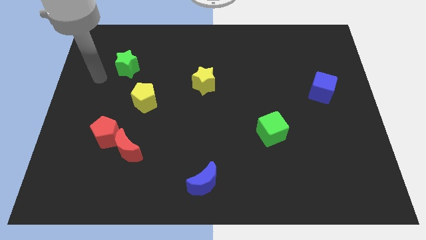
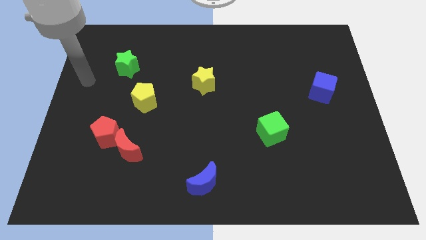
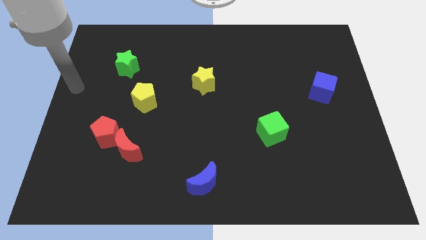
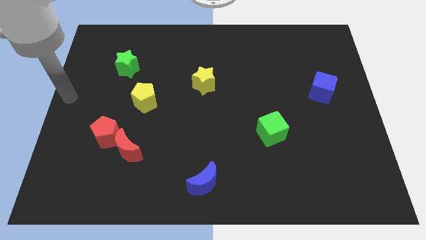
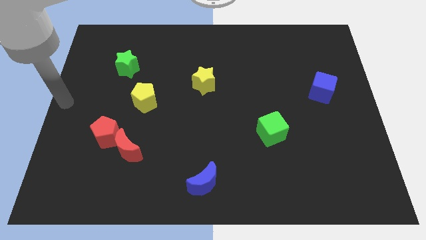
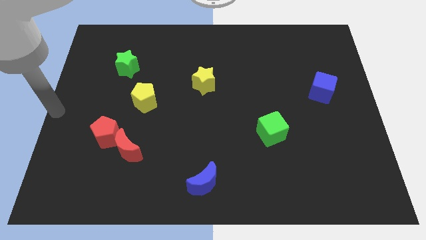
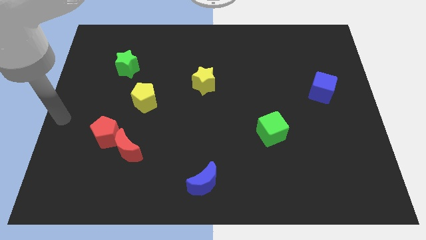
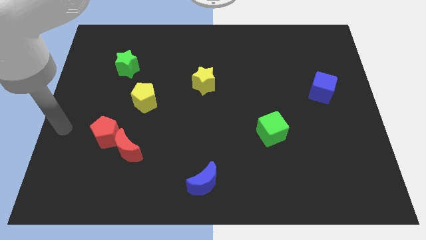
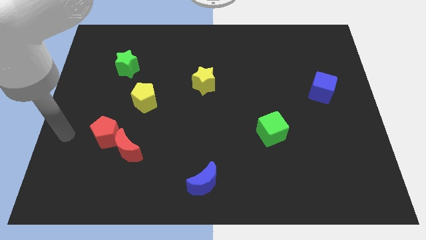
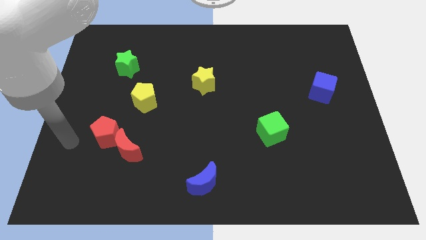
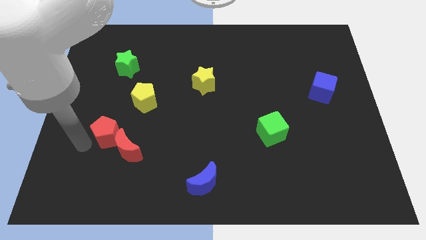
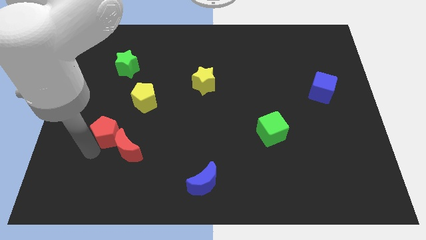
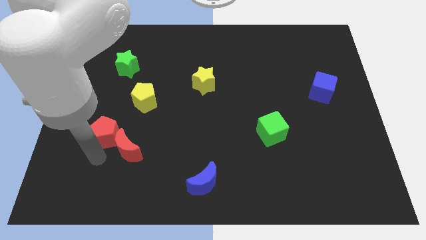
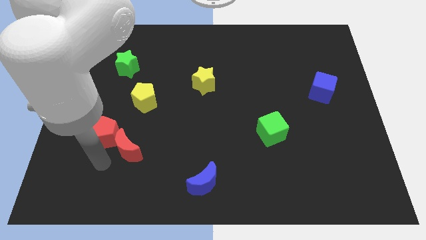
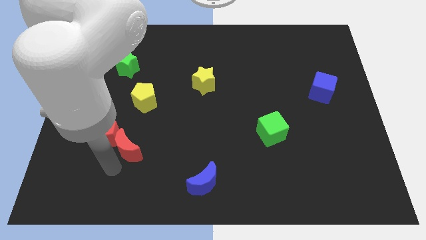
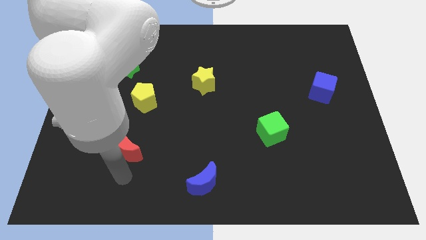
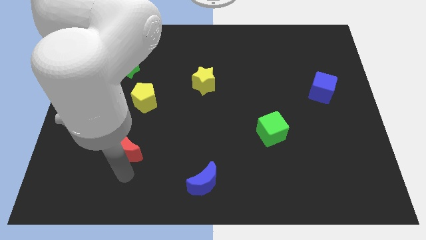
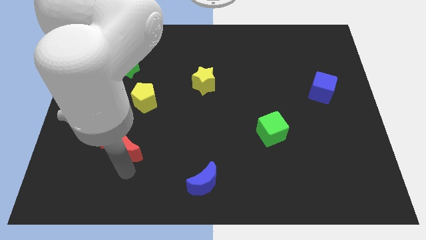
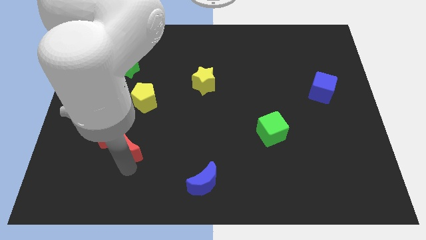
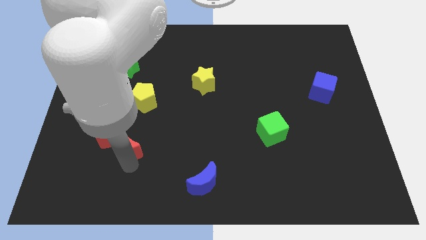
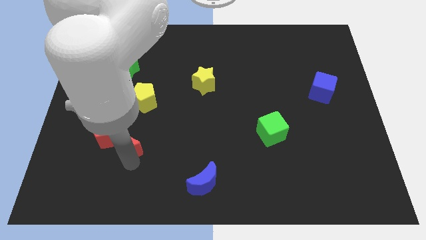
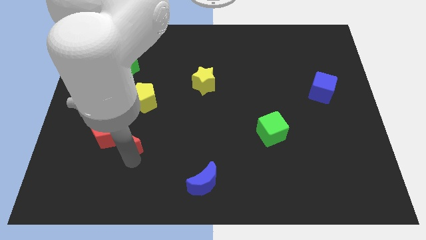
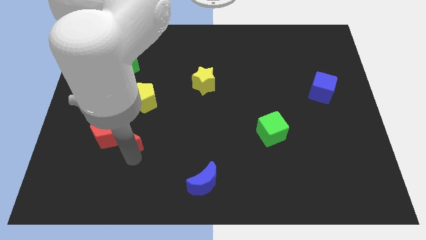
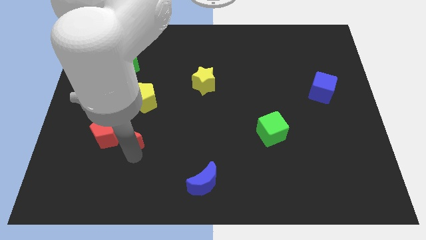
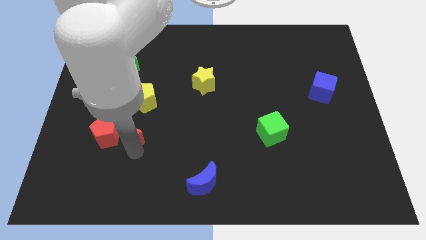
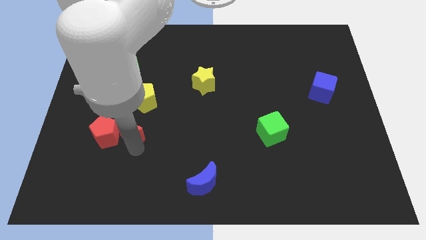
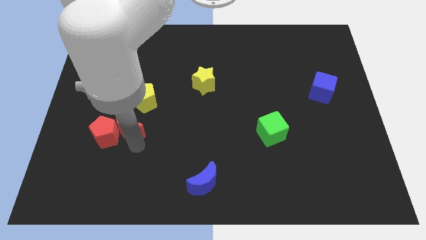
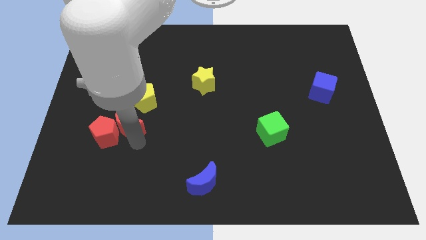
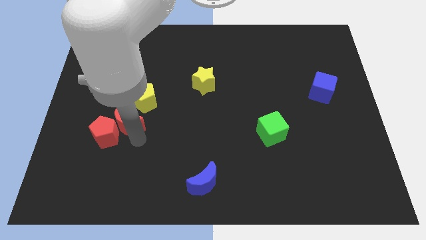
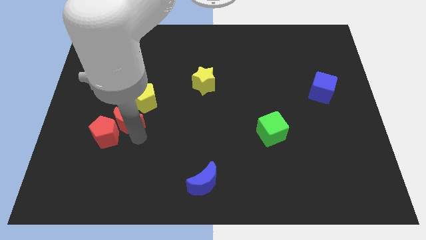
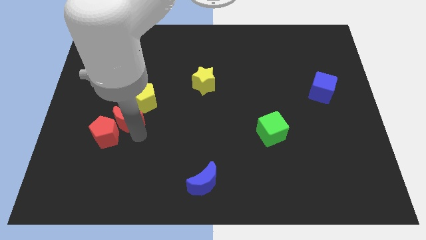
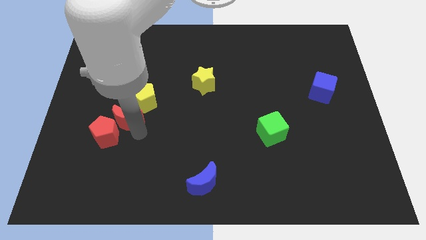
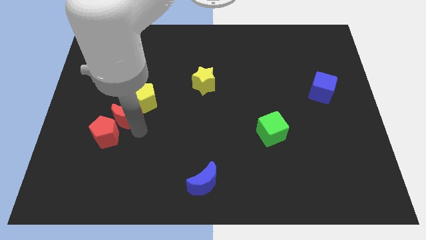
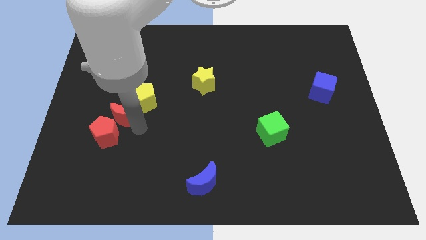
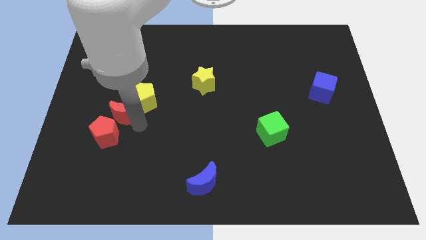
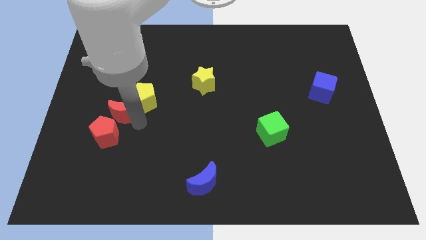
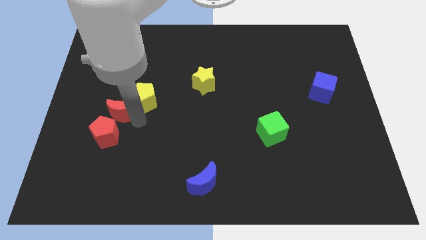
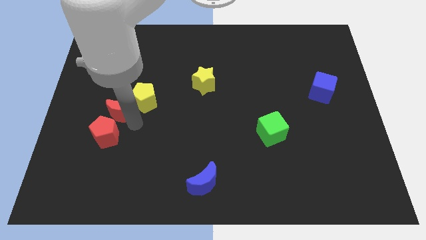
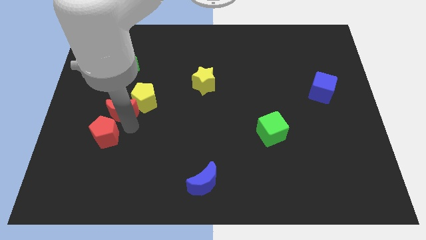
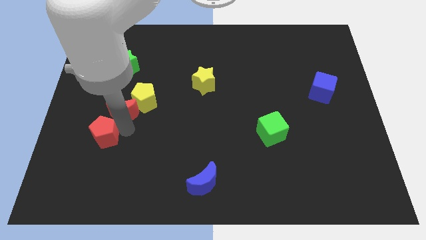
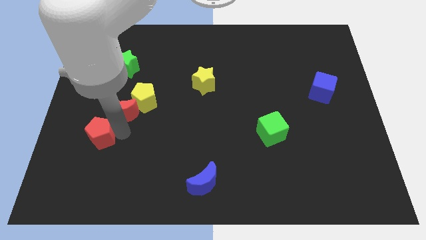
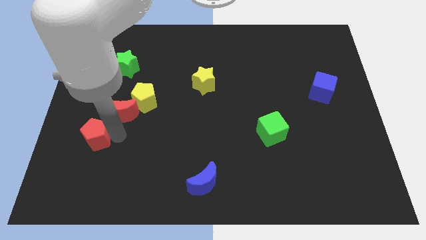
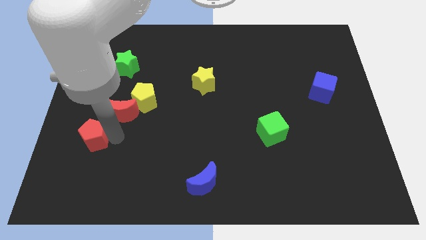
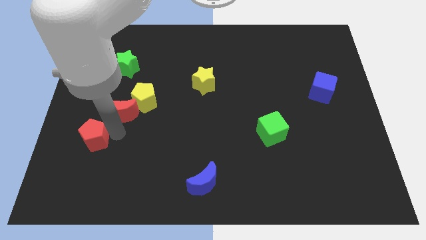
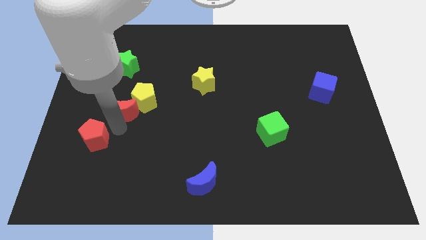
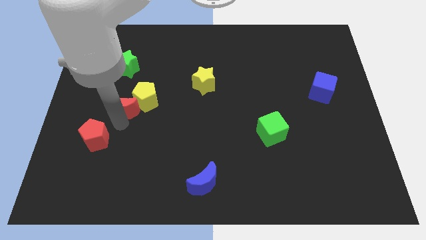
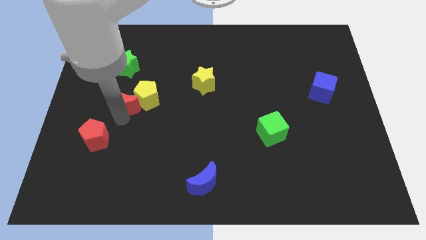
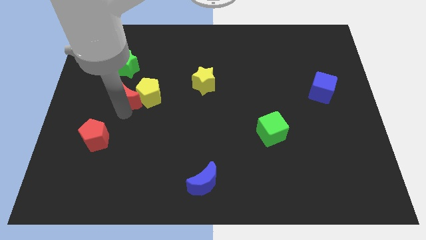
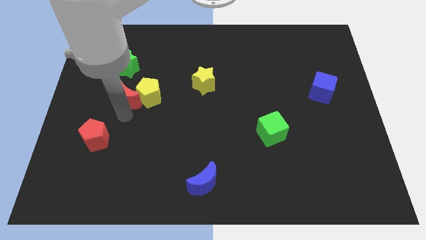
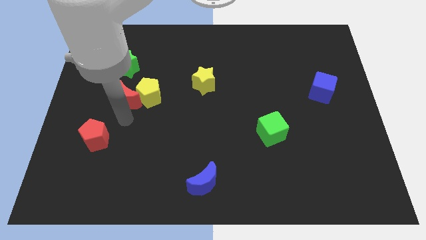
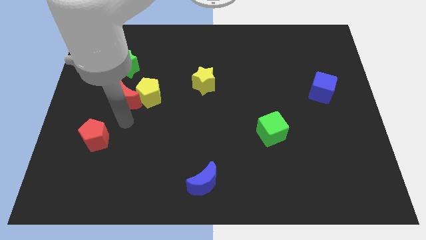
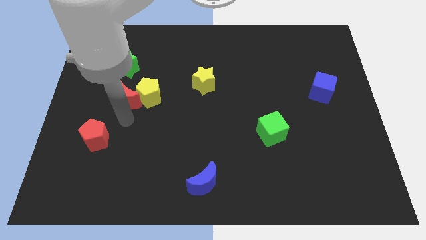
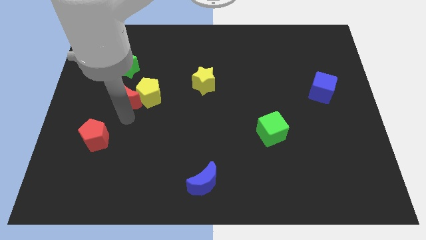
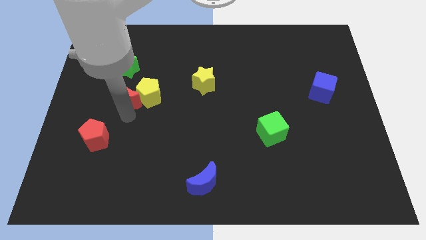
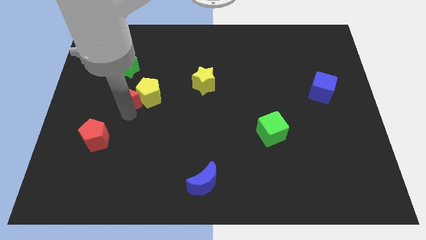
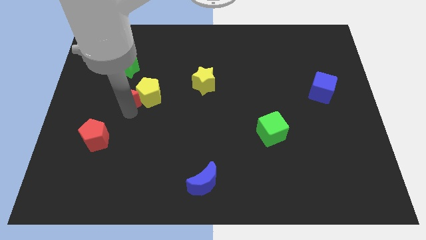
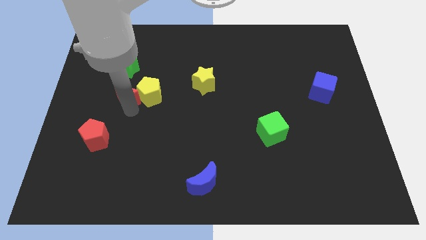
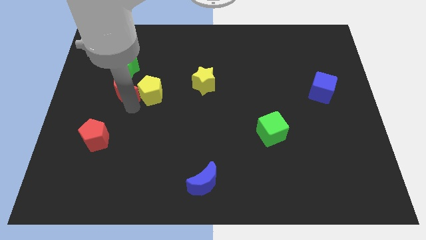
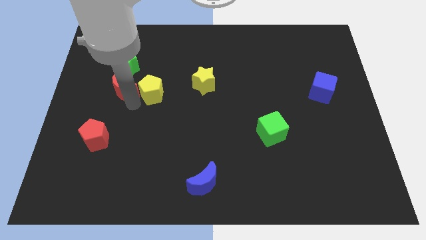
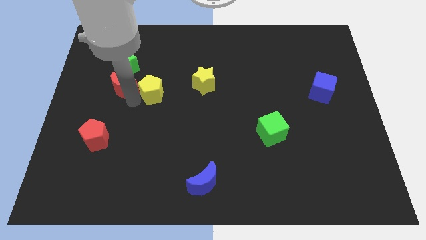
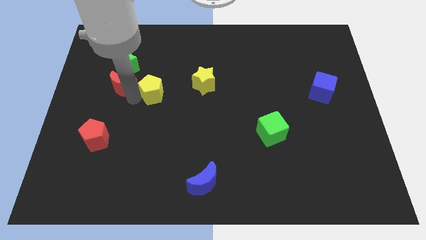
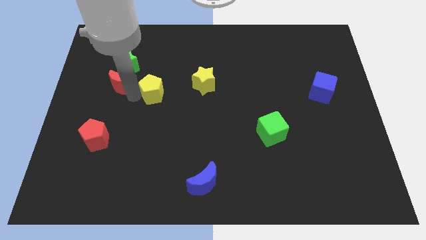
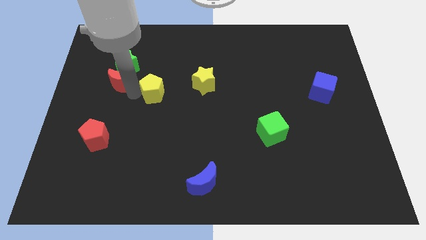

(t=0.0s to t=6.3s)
move the red moon close to the green star

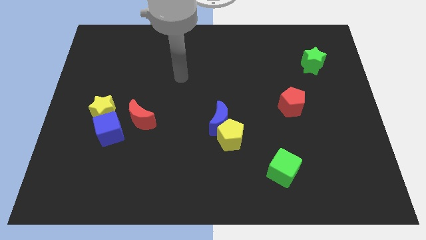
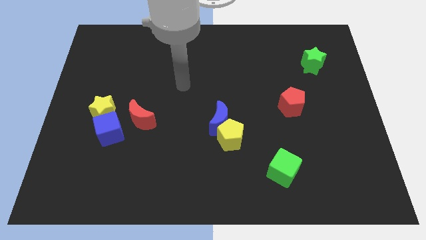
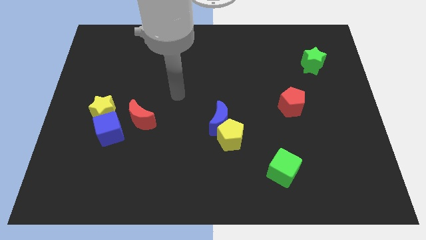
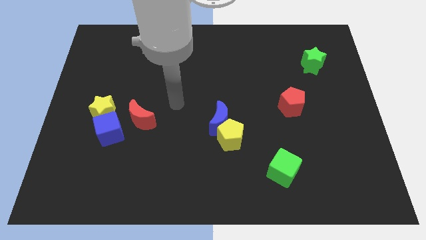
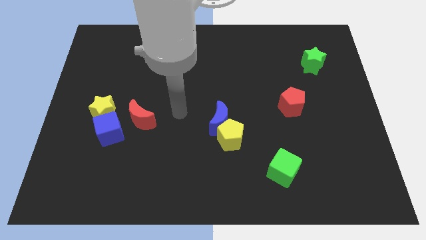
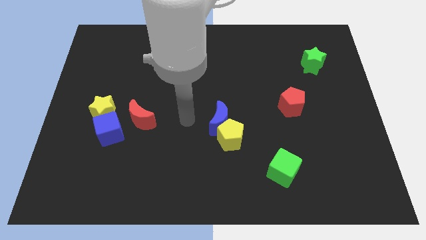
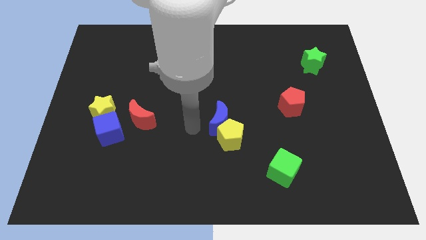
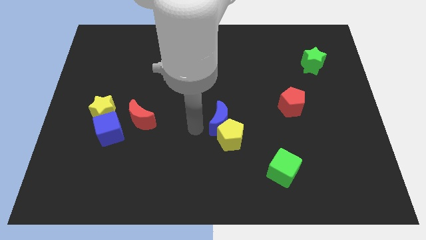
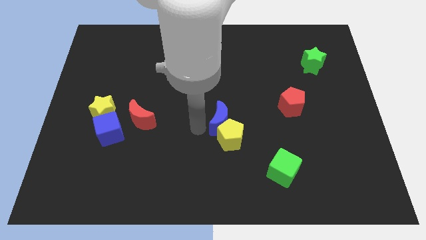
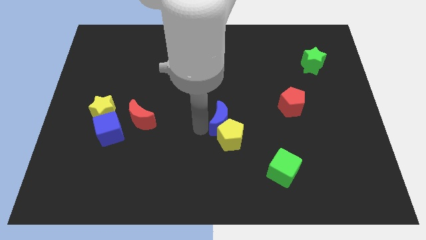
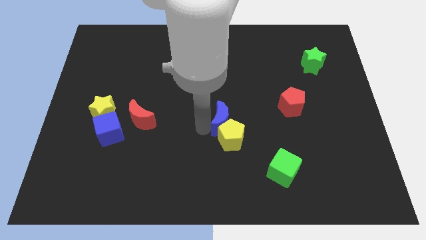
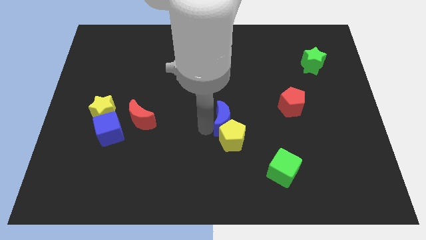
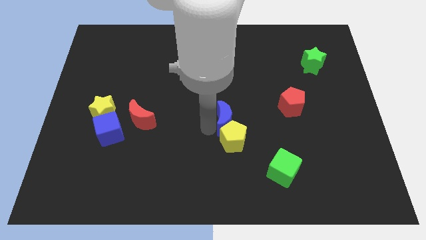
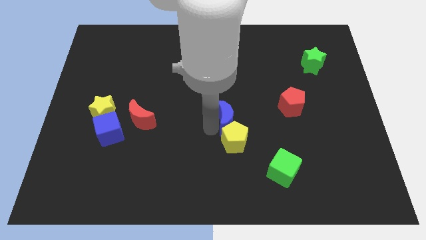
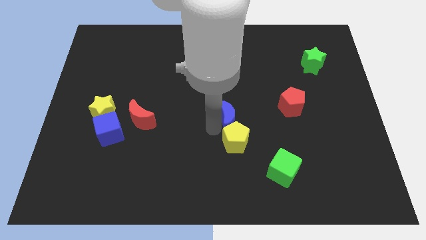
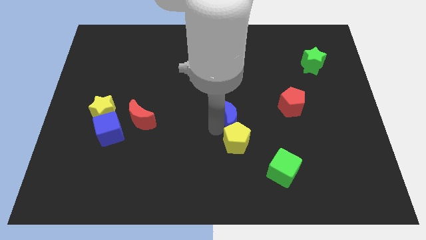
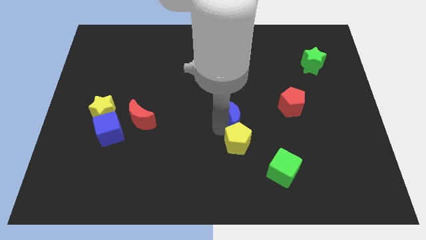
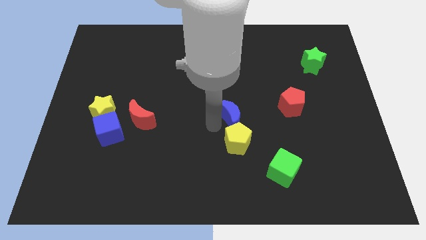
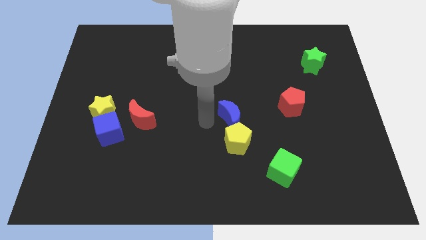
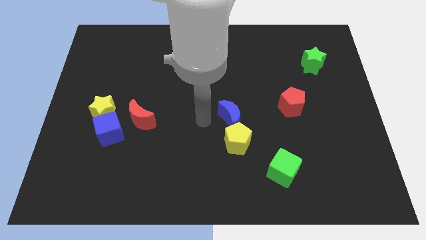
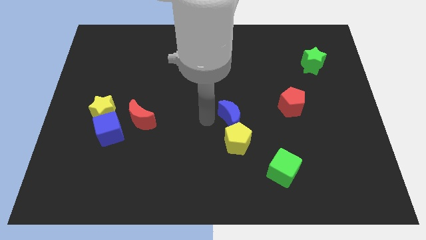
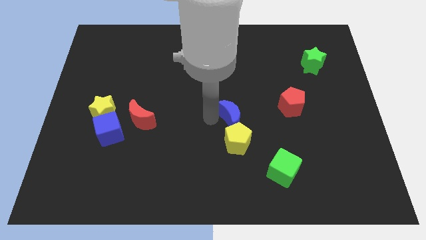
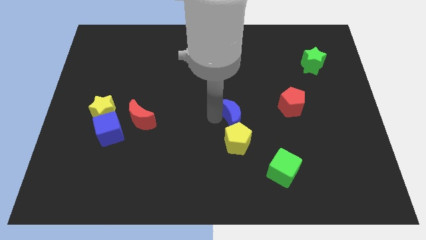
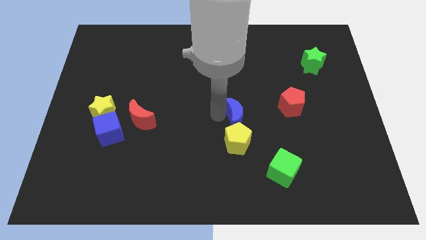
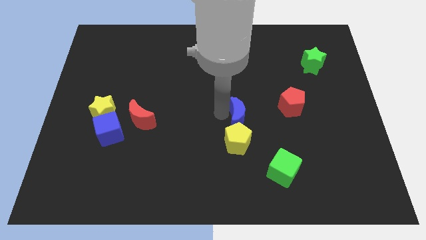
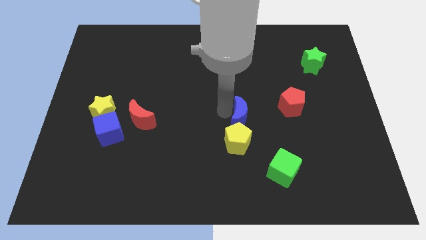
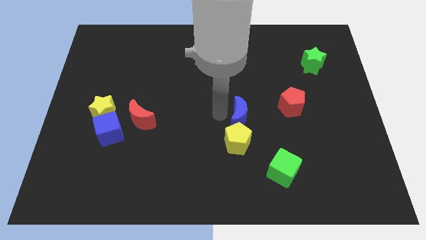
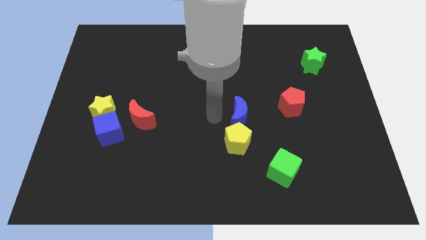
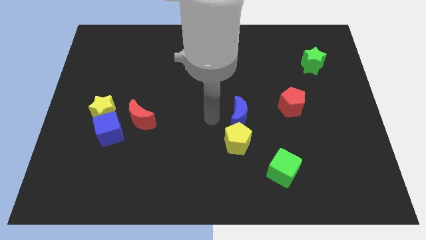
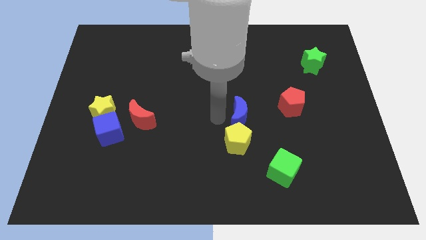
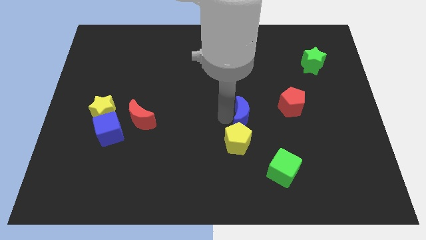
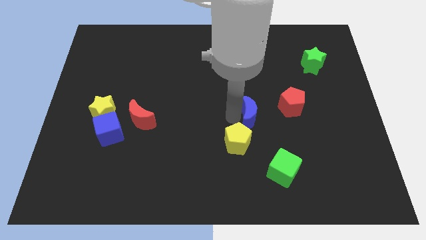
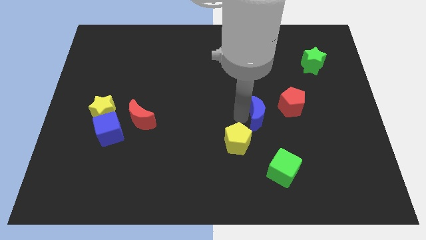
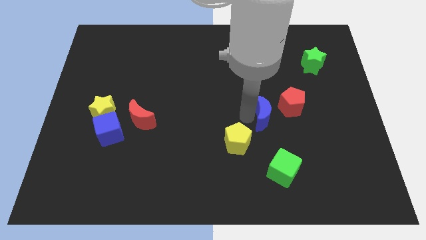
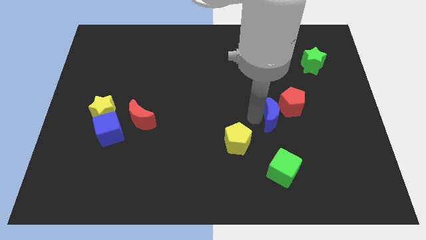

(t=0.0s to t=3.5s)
slide the blue moon to the red pentagon
